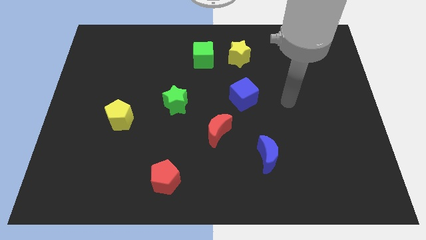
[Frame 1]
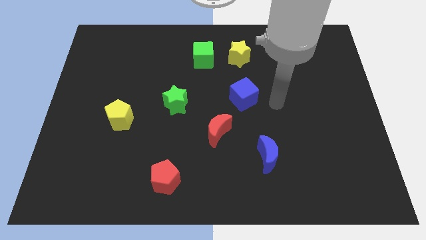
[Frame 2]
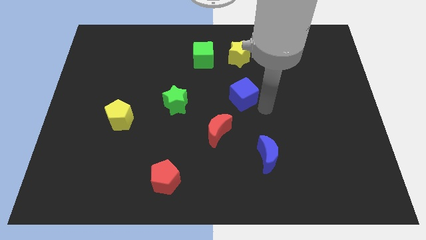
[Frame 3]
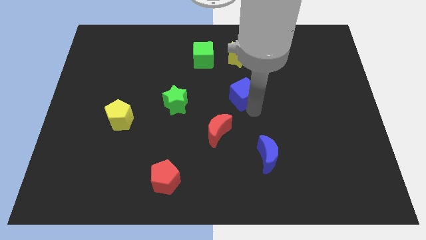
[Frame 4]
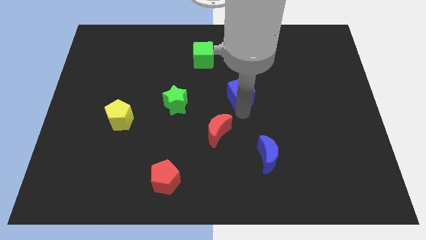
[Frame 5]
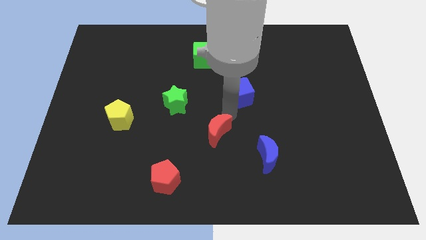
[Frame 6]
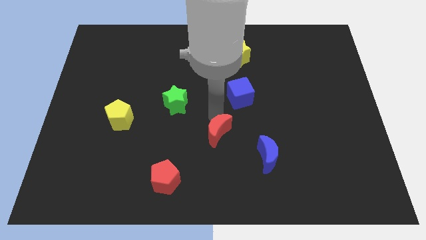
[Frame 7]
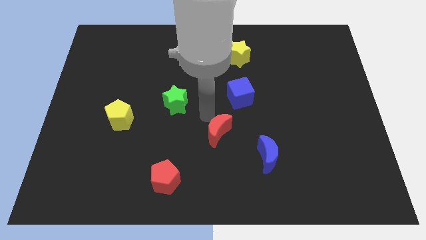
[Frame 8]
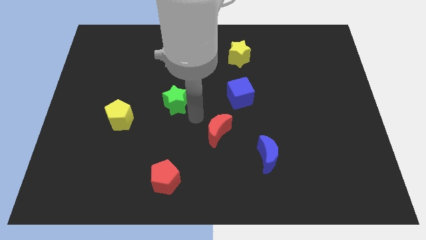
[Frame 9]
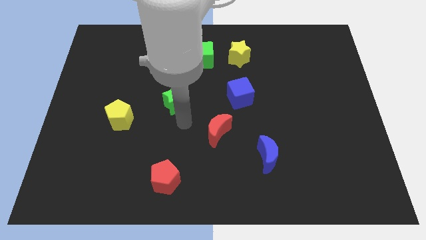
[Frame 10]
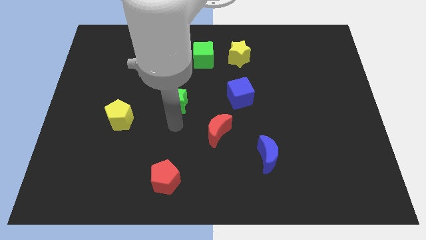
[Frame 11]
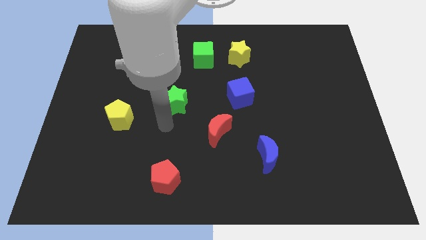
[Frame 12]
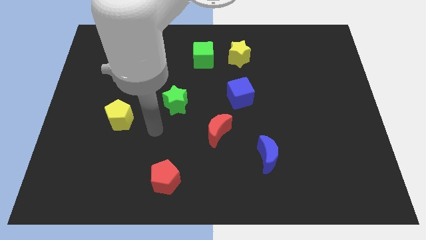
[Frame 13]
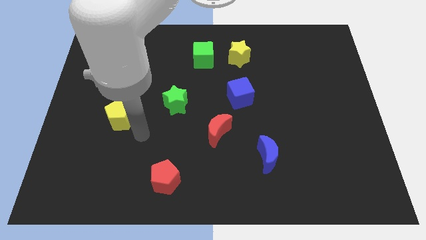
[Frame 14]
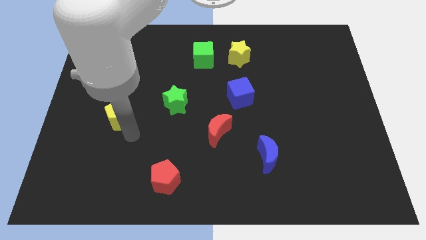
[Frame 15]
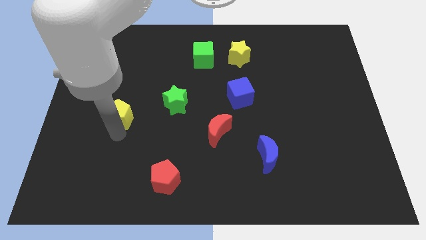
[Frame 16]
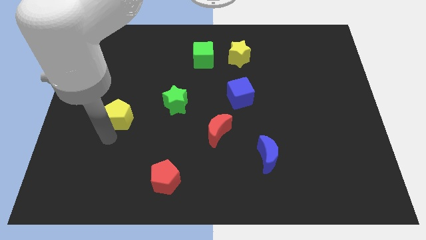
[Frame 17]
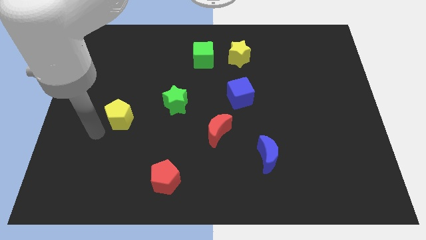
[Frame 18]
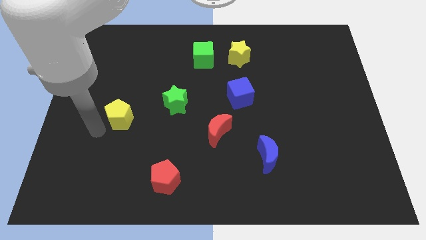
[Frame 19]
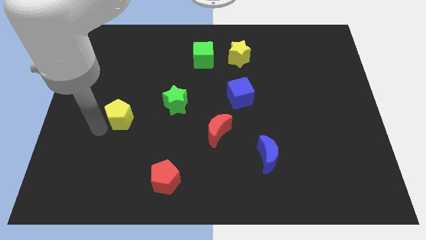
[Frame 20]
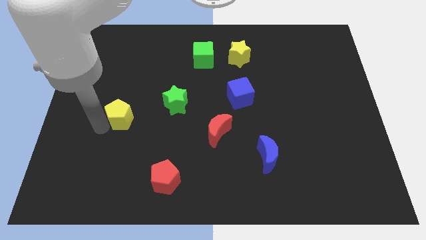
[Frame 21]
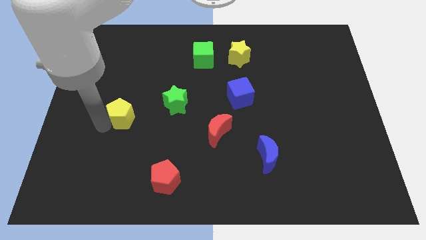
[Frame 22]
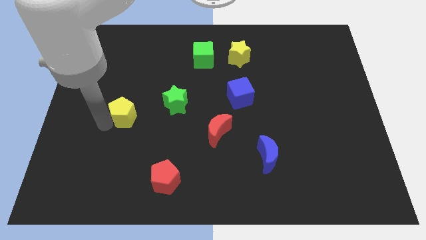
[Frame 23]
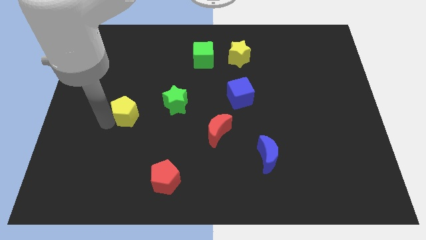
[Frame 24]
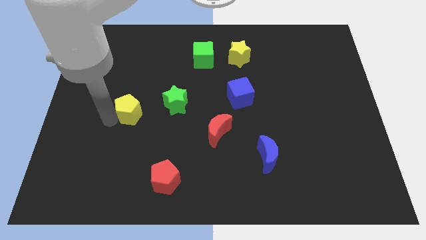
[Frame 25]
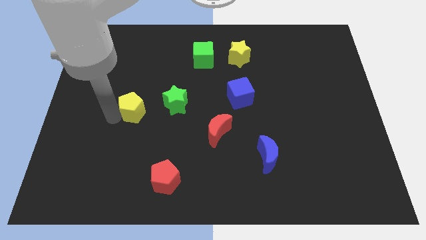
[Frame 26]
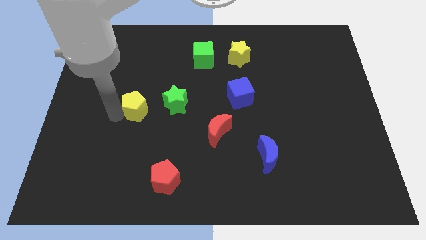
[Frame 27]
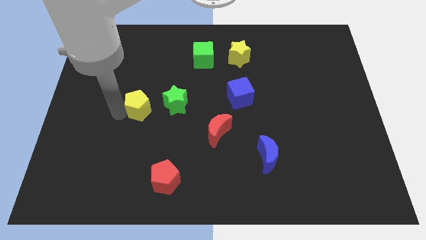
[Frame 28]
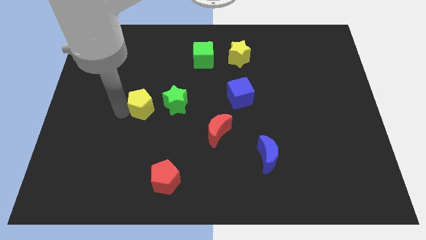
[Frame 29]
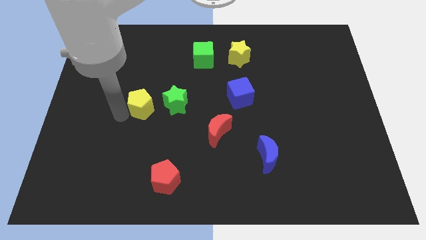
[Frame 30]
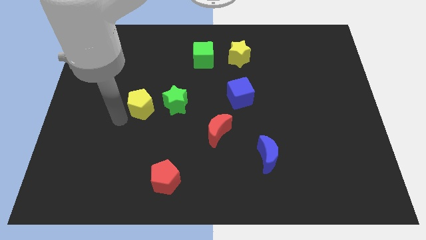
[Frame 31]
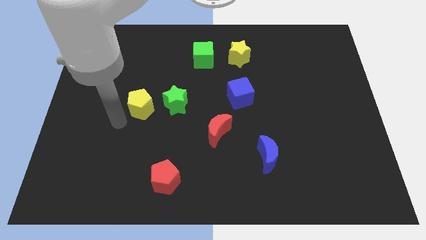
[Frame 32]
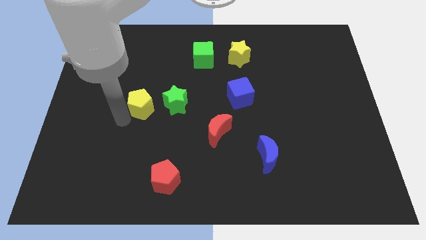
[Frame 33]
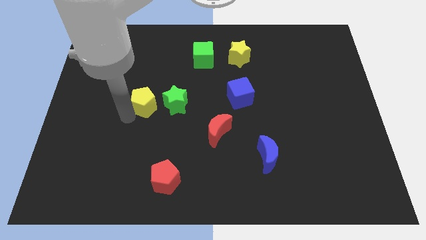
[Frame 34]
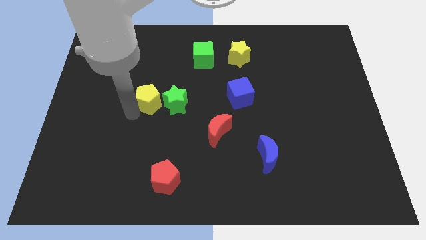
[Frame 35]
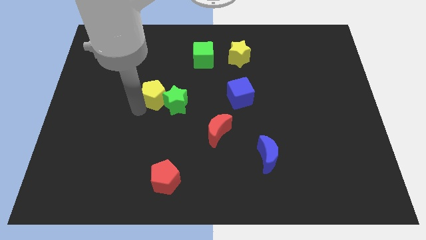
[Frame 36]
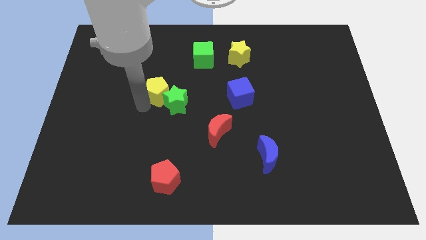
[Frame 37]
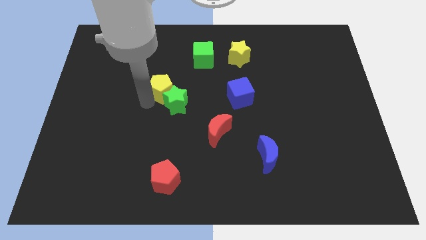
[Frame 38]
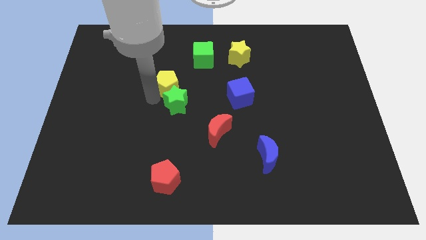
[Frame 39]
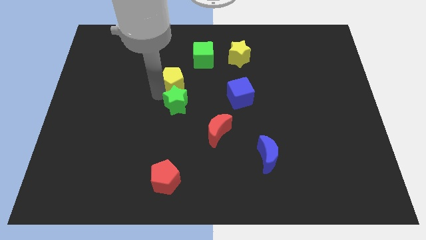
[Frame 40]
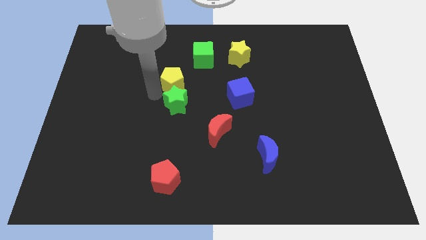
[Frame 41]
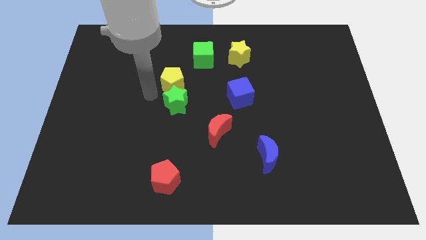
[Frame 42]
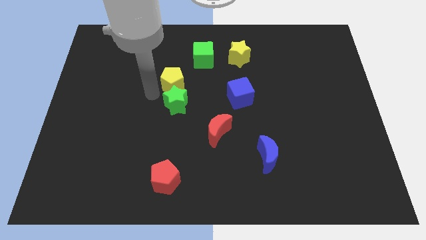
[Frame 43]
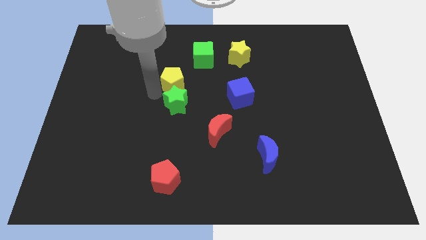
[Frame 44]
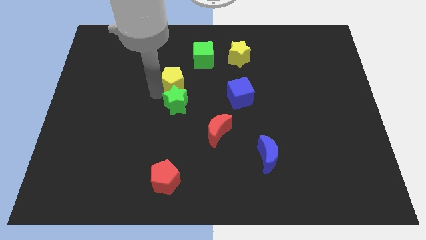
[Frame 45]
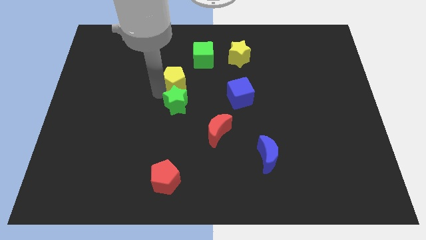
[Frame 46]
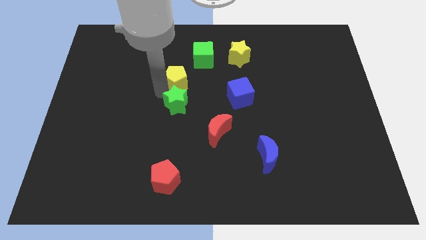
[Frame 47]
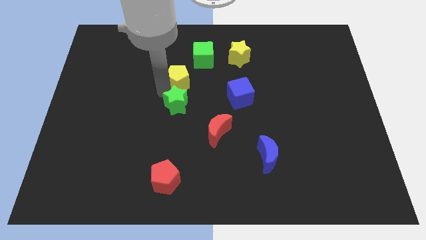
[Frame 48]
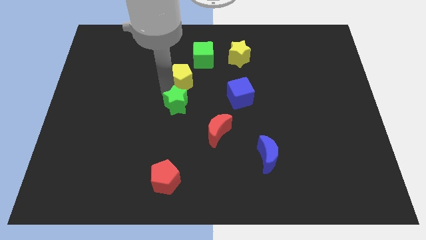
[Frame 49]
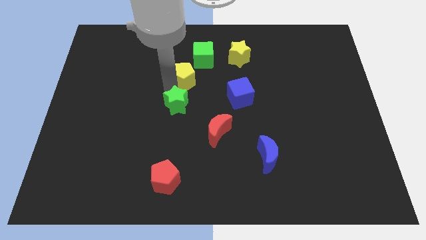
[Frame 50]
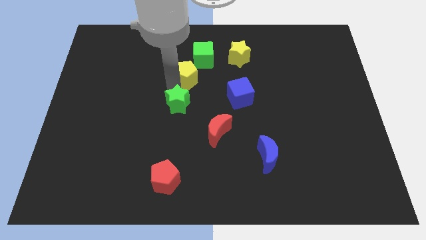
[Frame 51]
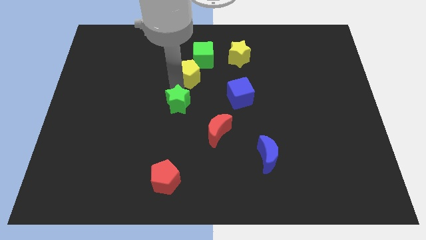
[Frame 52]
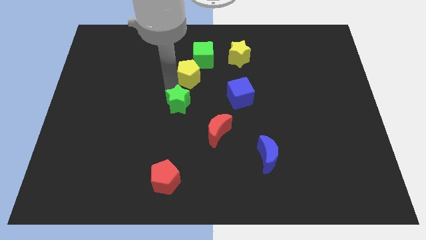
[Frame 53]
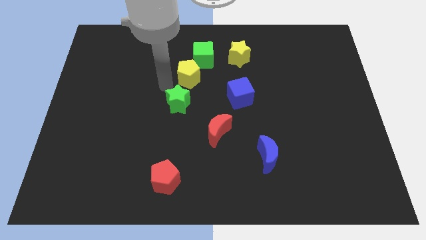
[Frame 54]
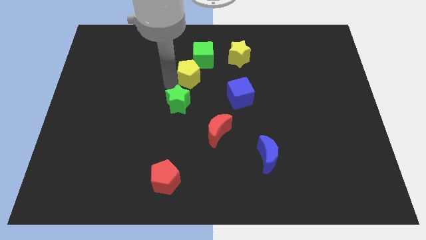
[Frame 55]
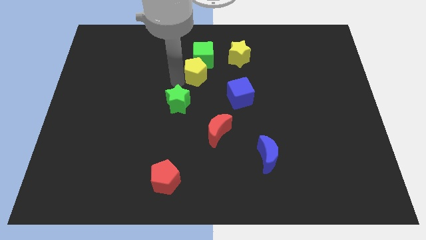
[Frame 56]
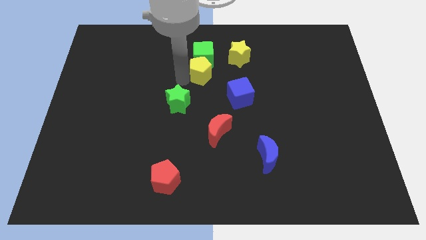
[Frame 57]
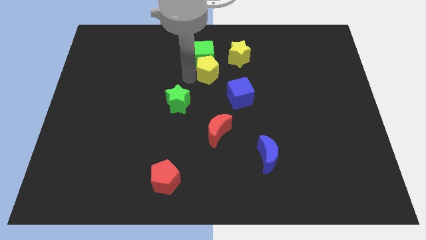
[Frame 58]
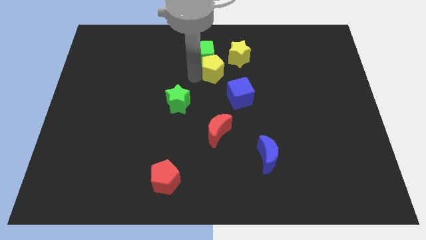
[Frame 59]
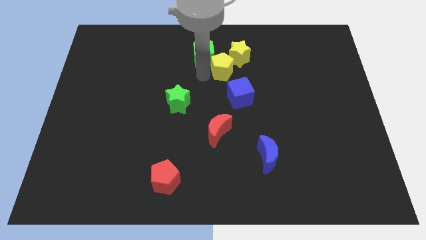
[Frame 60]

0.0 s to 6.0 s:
put the yellow pentagon to the yellow star

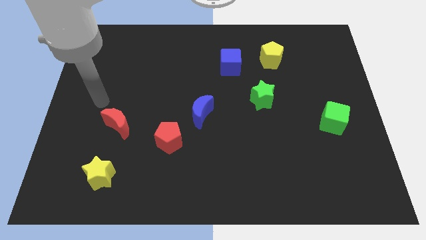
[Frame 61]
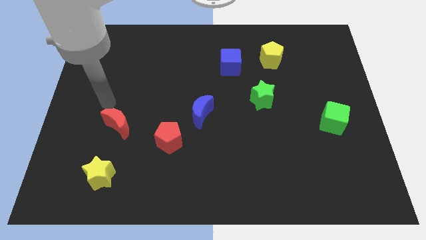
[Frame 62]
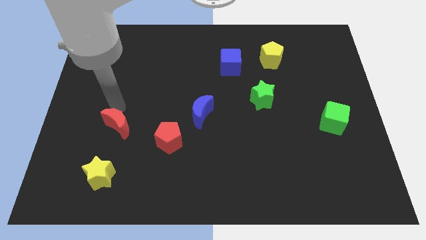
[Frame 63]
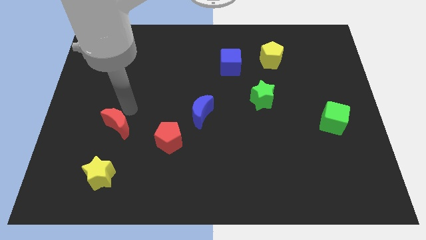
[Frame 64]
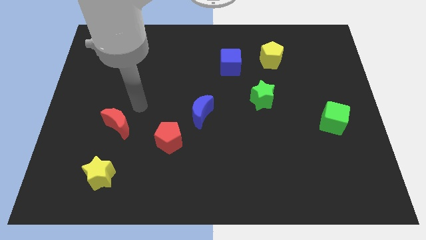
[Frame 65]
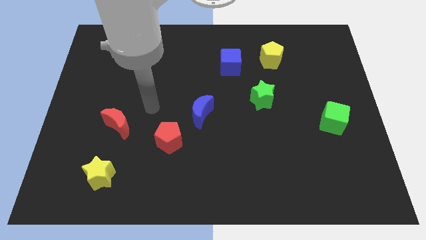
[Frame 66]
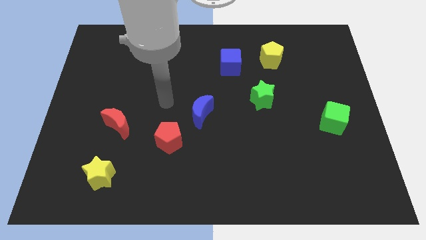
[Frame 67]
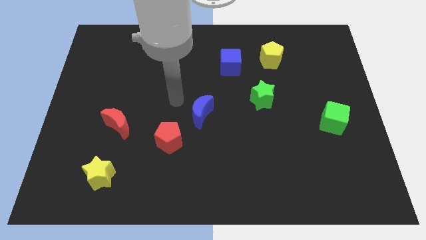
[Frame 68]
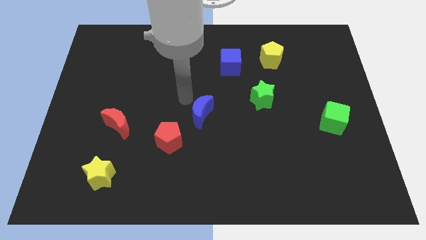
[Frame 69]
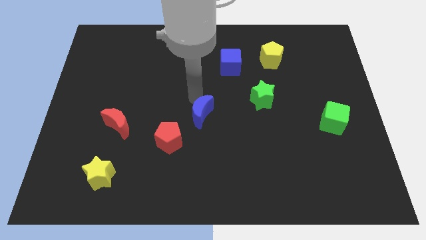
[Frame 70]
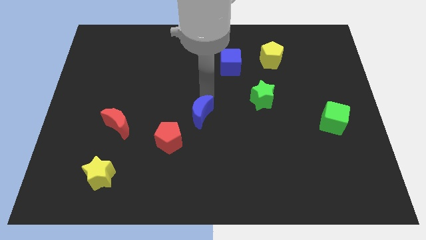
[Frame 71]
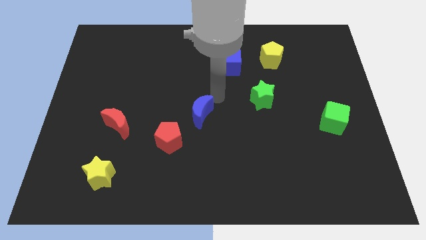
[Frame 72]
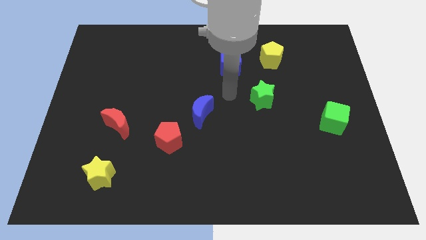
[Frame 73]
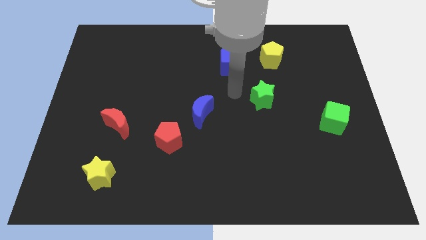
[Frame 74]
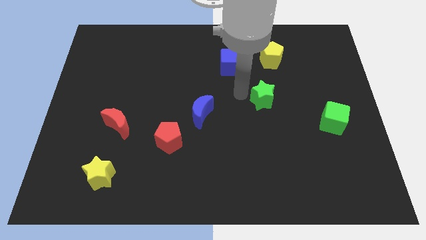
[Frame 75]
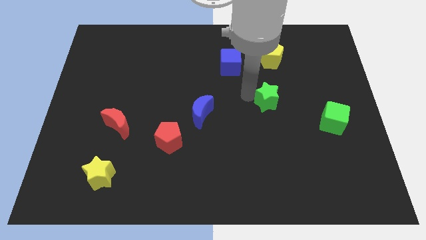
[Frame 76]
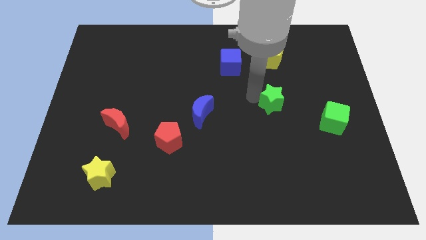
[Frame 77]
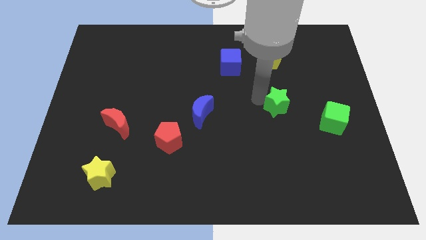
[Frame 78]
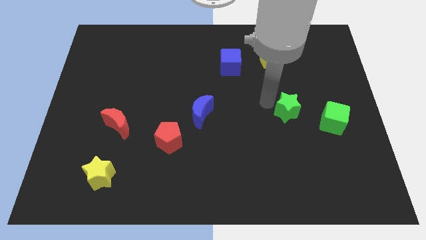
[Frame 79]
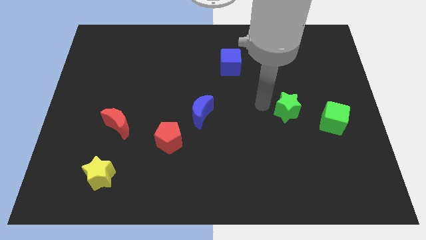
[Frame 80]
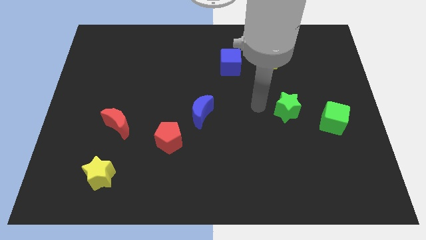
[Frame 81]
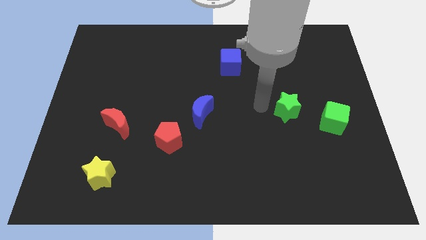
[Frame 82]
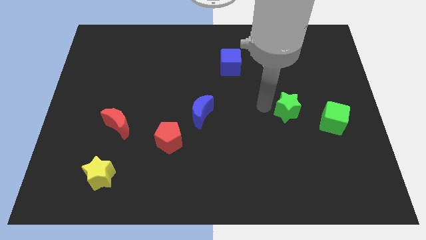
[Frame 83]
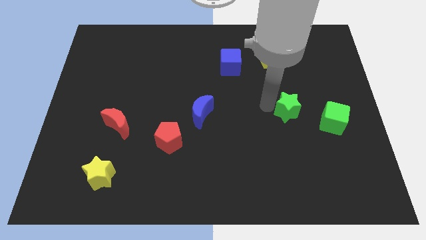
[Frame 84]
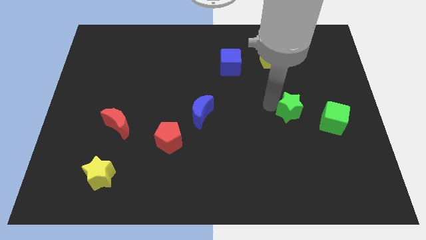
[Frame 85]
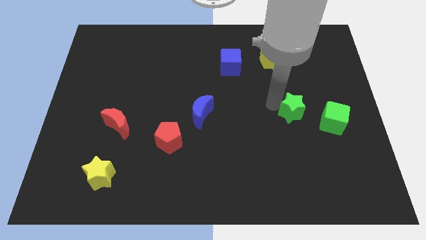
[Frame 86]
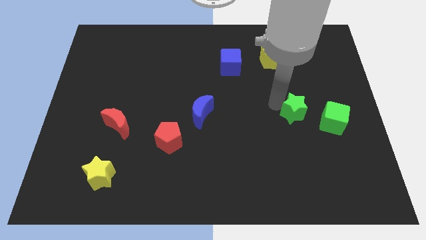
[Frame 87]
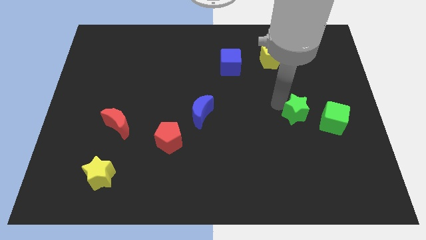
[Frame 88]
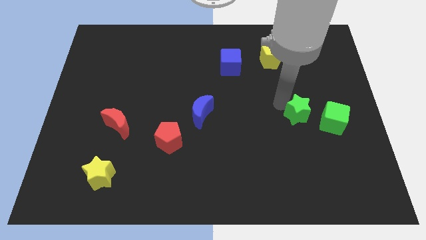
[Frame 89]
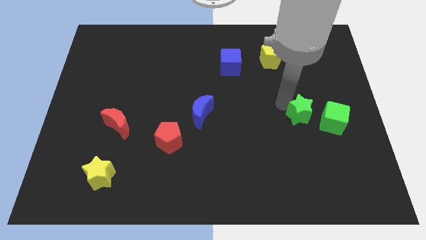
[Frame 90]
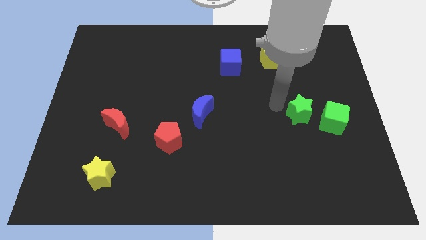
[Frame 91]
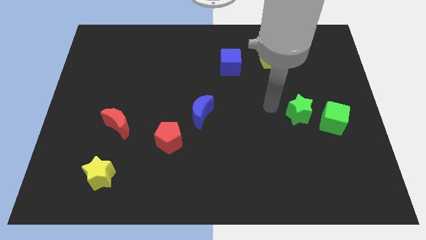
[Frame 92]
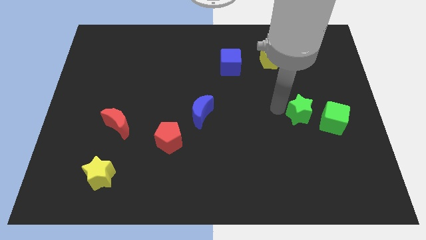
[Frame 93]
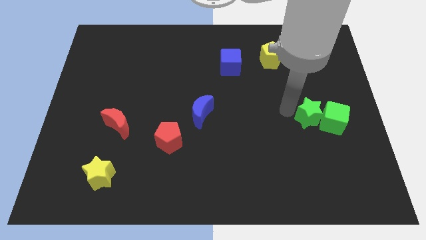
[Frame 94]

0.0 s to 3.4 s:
push the green star next to the green cube
